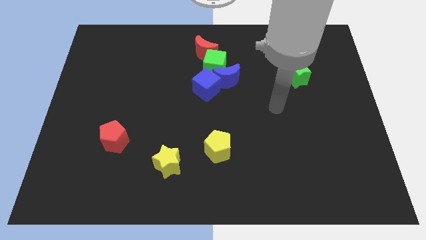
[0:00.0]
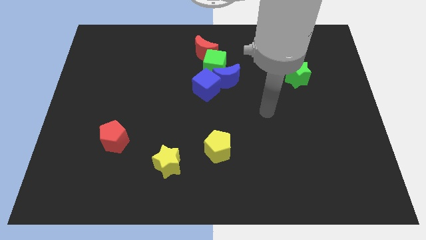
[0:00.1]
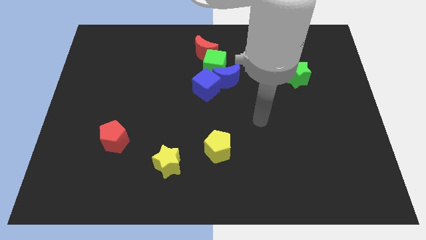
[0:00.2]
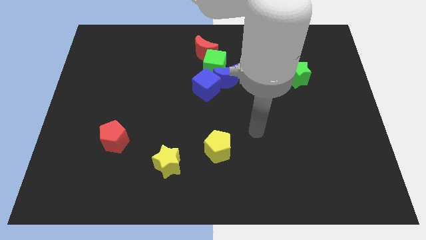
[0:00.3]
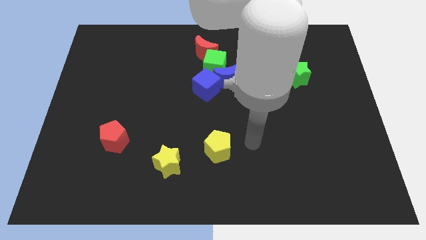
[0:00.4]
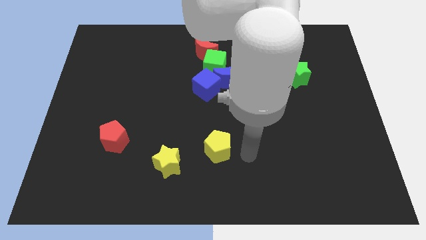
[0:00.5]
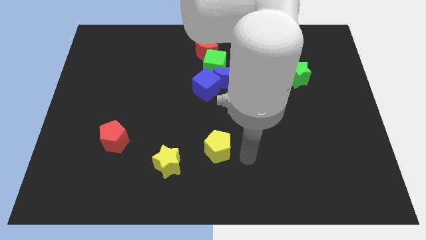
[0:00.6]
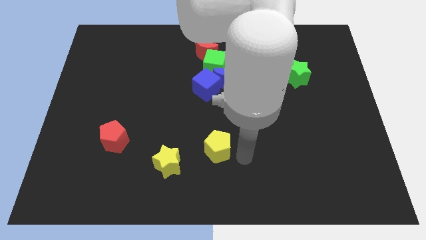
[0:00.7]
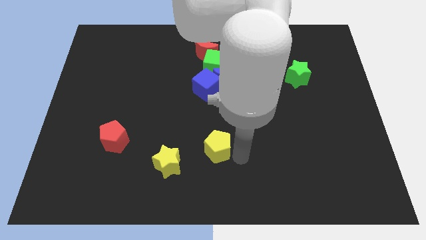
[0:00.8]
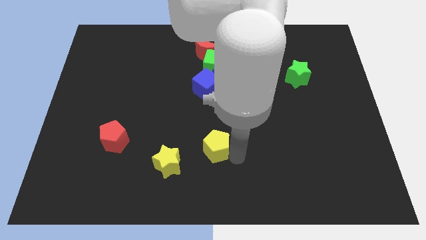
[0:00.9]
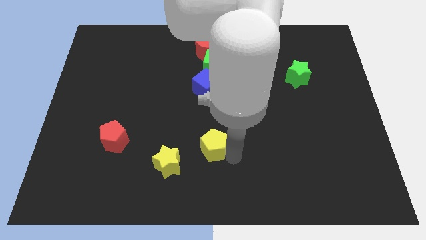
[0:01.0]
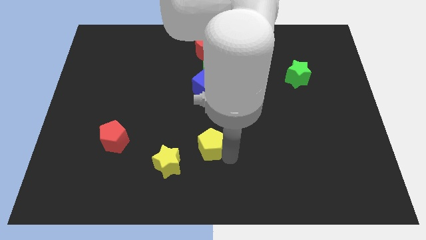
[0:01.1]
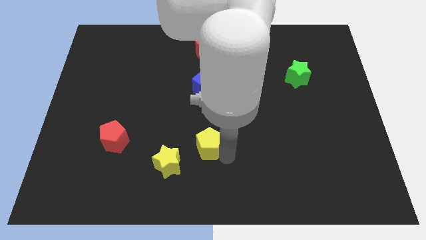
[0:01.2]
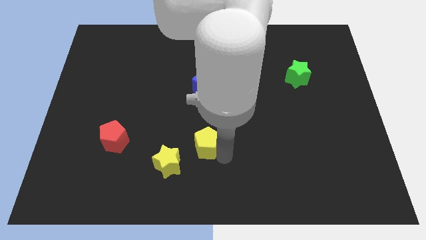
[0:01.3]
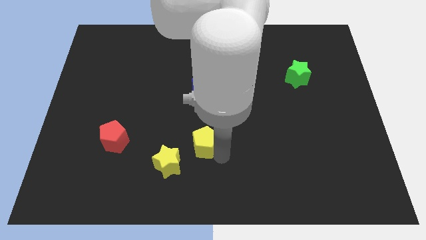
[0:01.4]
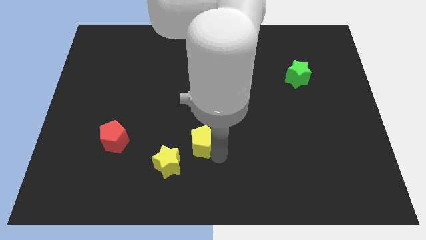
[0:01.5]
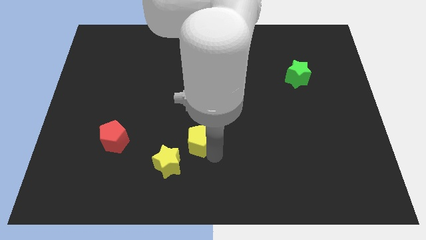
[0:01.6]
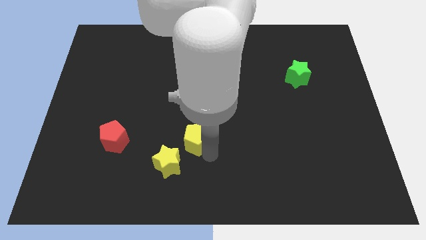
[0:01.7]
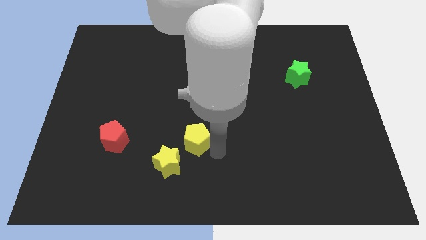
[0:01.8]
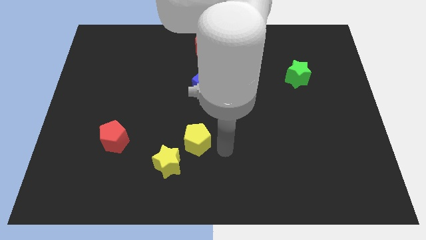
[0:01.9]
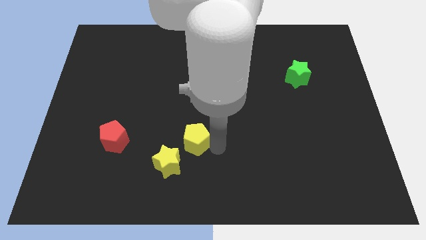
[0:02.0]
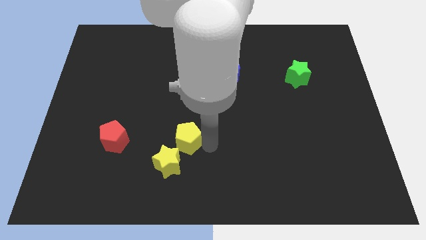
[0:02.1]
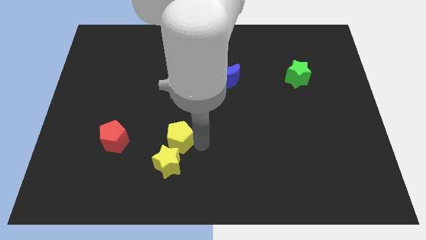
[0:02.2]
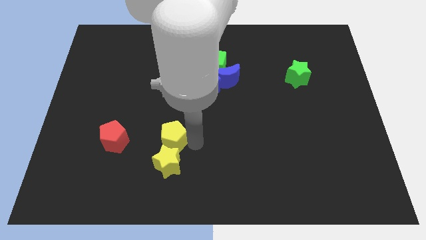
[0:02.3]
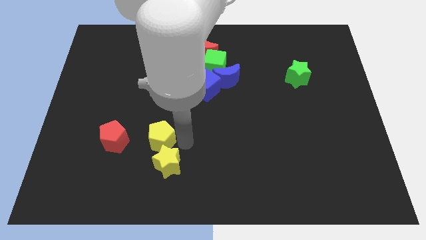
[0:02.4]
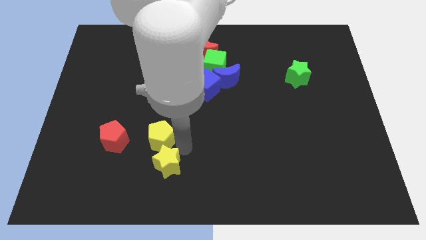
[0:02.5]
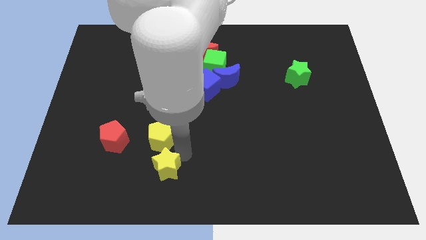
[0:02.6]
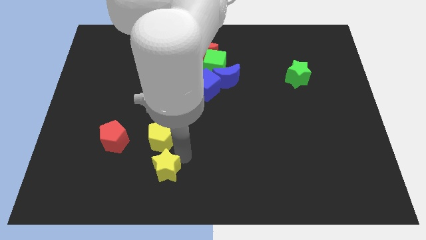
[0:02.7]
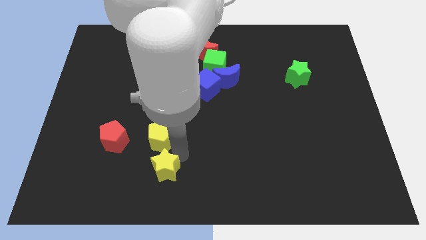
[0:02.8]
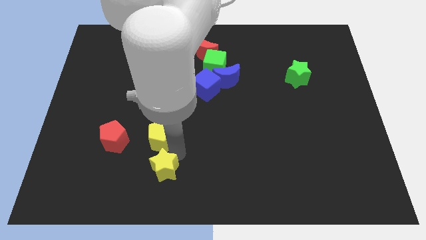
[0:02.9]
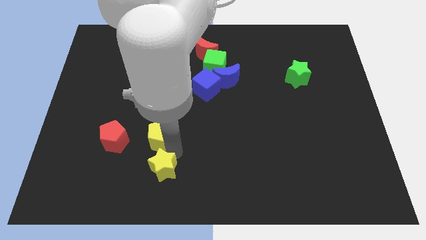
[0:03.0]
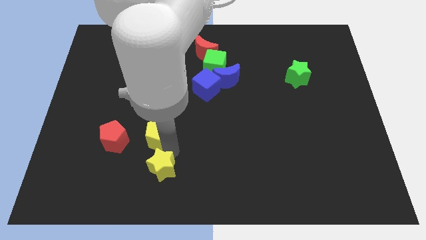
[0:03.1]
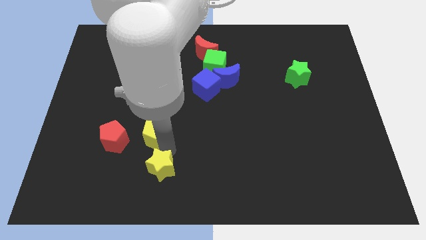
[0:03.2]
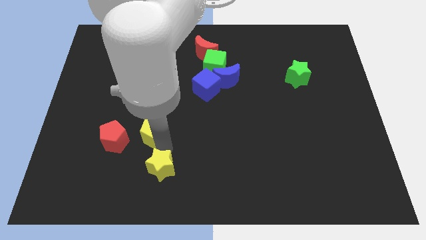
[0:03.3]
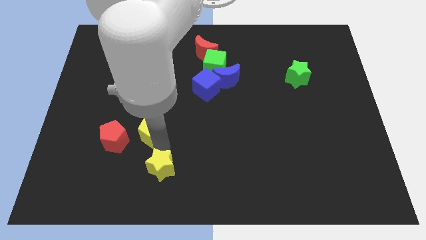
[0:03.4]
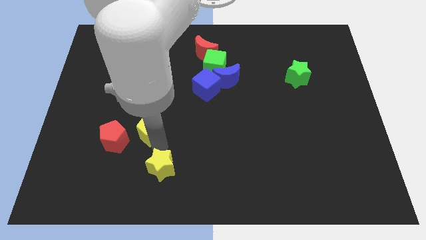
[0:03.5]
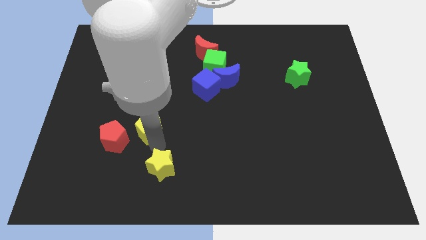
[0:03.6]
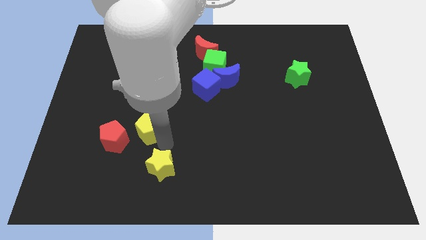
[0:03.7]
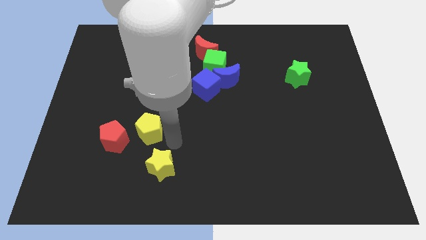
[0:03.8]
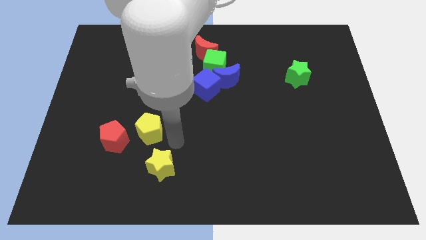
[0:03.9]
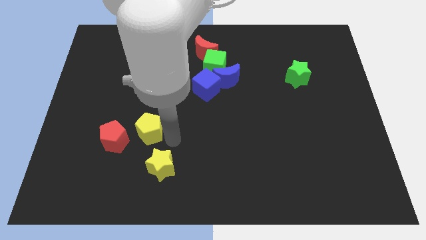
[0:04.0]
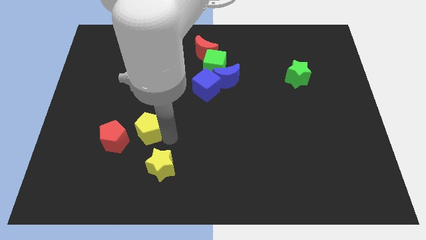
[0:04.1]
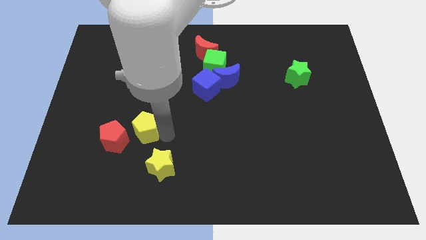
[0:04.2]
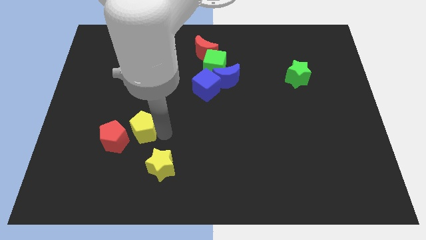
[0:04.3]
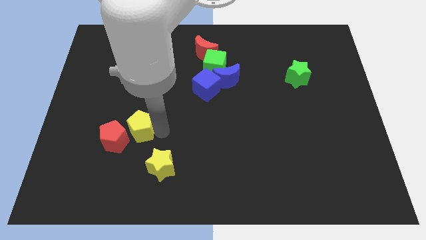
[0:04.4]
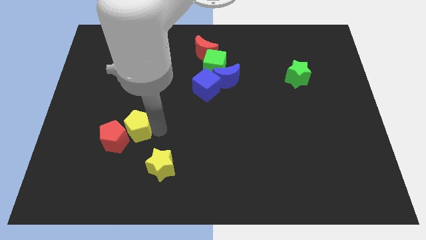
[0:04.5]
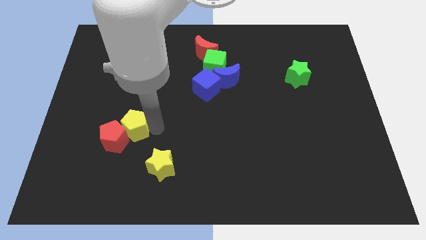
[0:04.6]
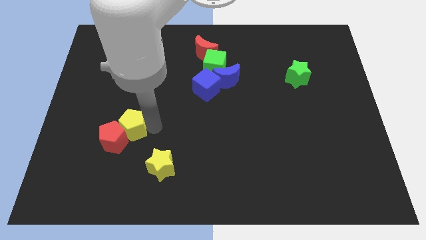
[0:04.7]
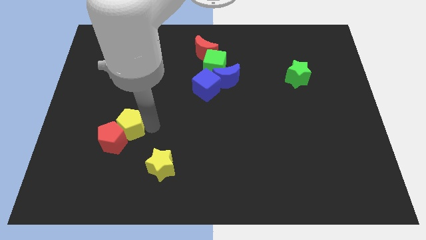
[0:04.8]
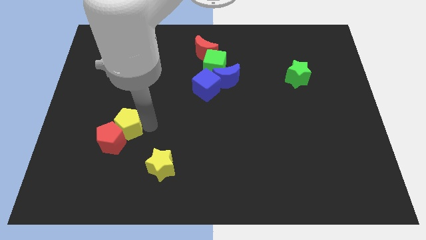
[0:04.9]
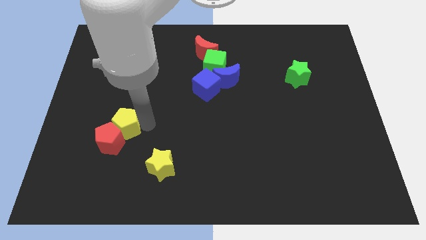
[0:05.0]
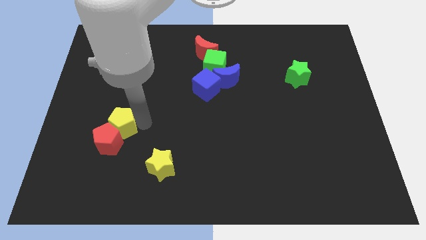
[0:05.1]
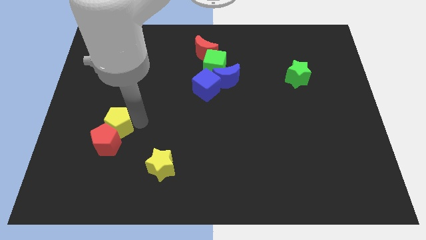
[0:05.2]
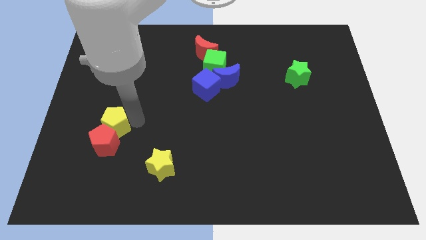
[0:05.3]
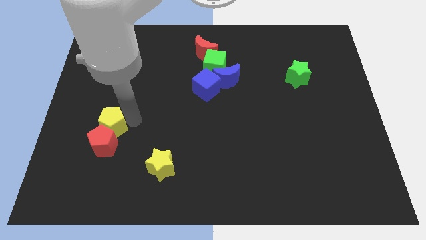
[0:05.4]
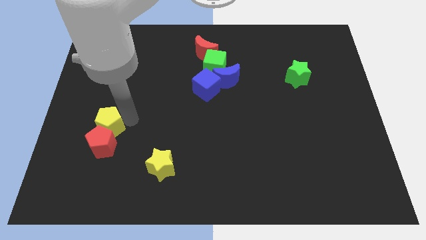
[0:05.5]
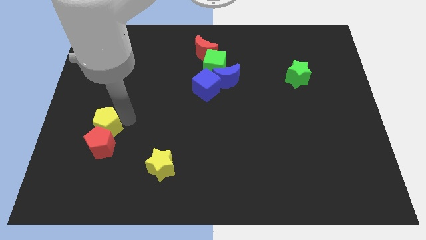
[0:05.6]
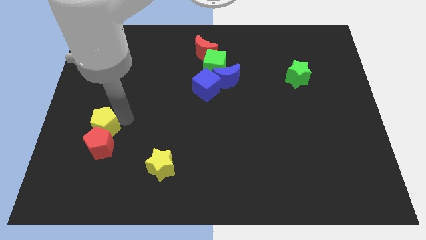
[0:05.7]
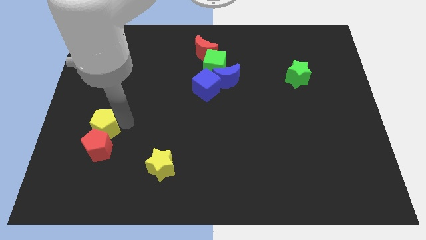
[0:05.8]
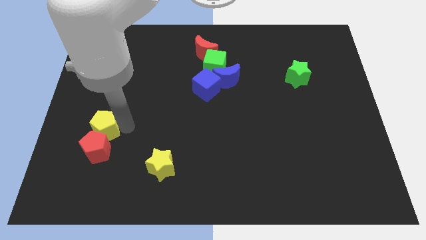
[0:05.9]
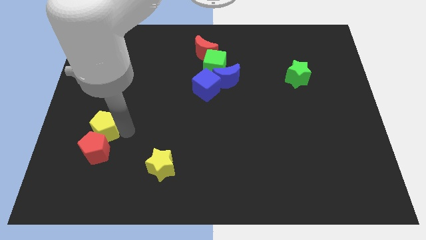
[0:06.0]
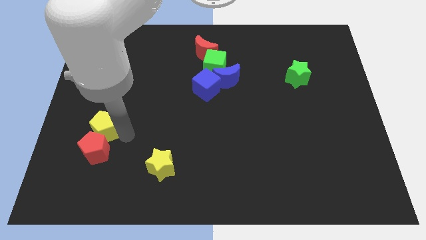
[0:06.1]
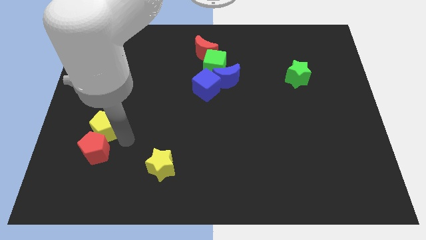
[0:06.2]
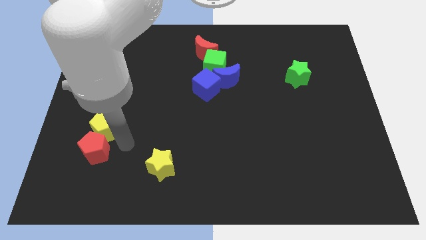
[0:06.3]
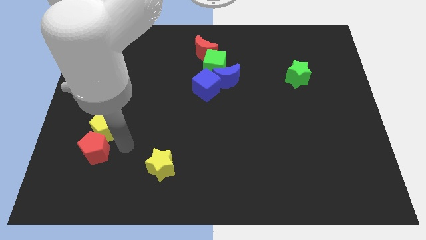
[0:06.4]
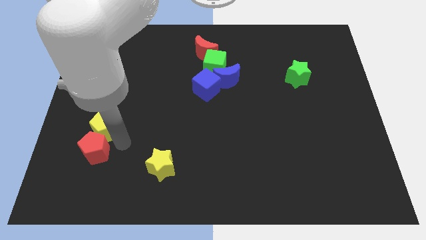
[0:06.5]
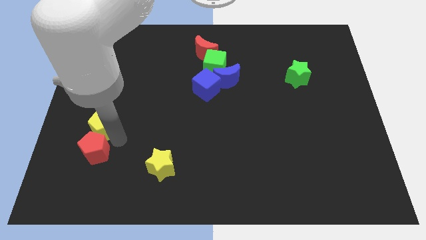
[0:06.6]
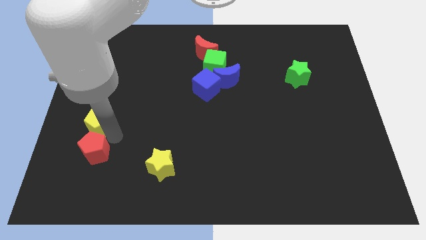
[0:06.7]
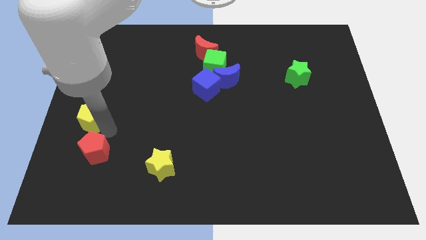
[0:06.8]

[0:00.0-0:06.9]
push the yellow pentagon to the left side
